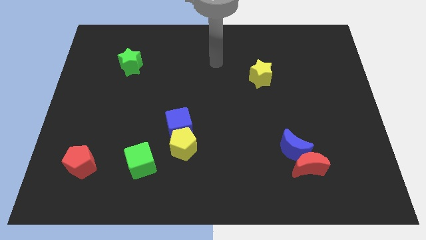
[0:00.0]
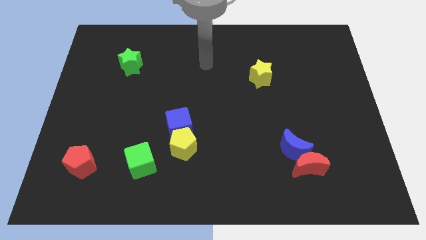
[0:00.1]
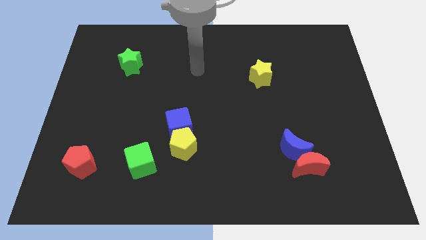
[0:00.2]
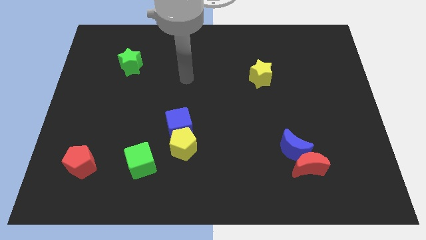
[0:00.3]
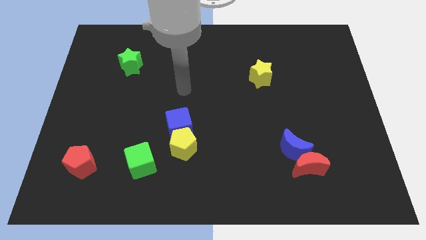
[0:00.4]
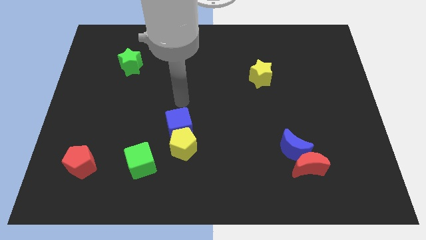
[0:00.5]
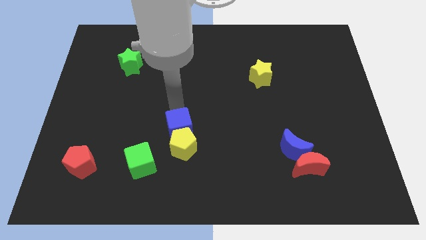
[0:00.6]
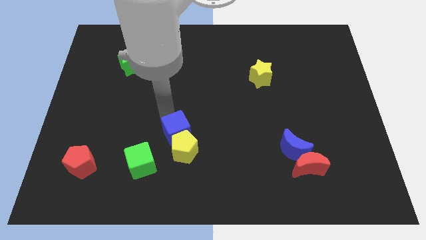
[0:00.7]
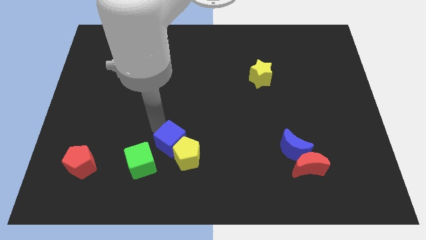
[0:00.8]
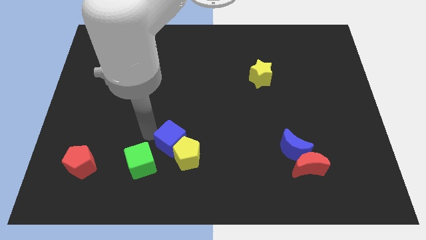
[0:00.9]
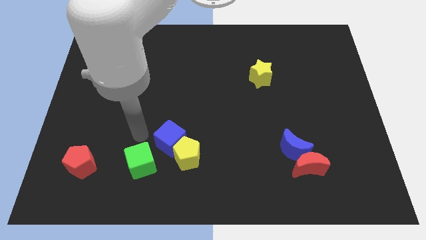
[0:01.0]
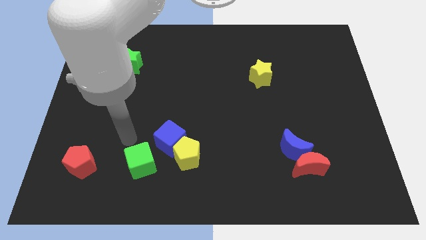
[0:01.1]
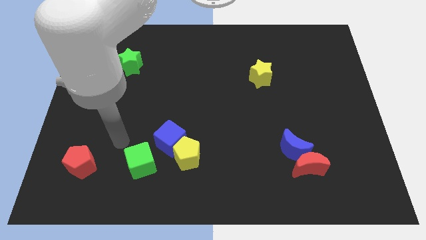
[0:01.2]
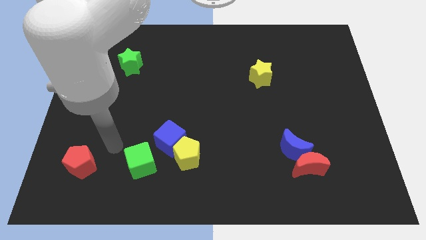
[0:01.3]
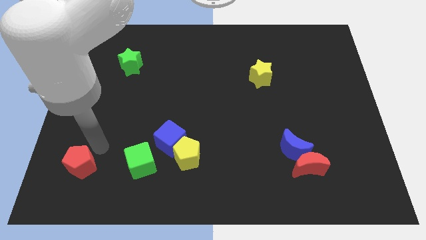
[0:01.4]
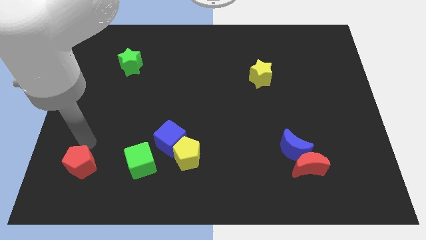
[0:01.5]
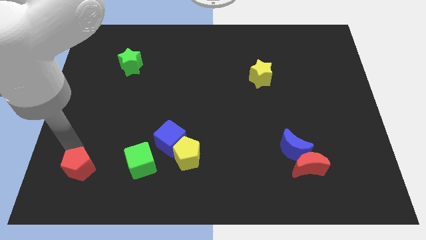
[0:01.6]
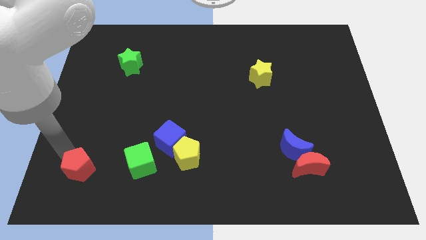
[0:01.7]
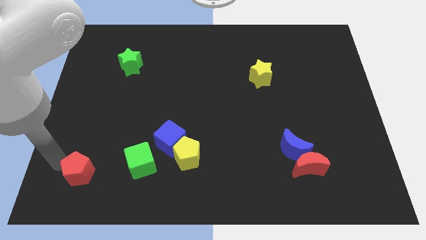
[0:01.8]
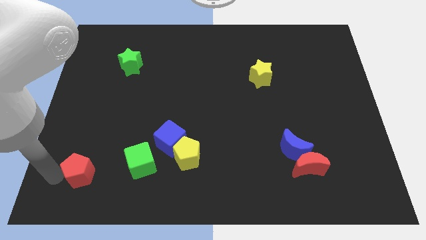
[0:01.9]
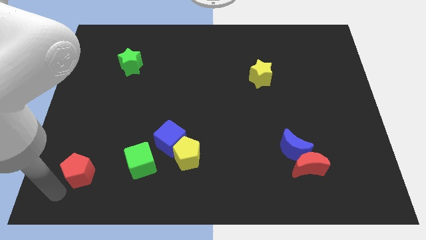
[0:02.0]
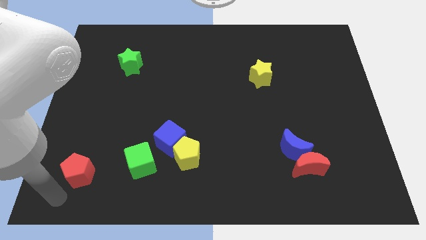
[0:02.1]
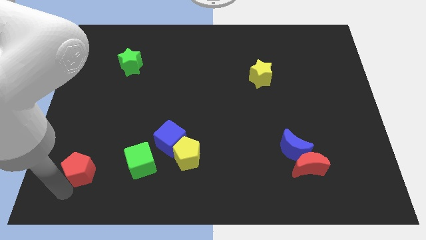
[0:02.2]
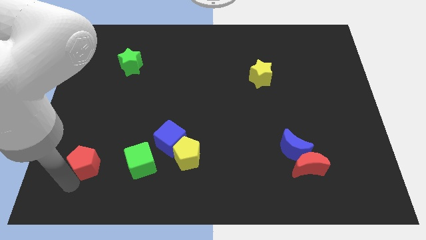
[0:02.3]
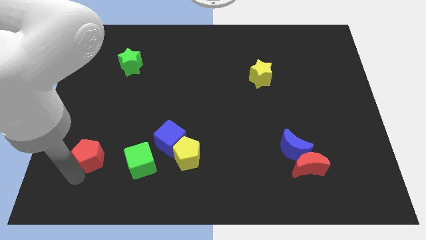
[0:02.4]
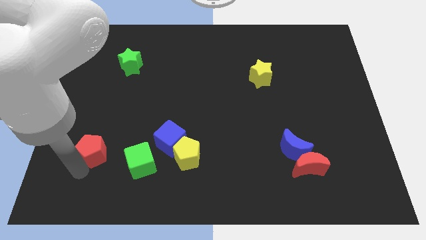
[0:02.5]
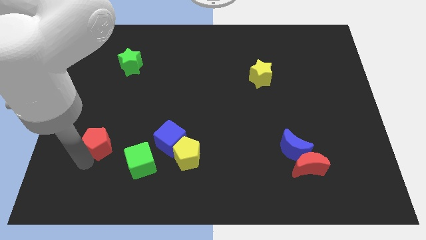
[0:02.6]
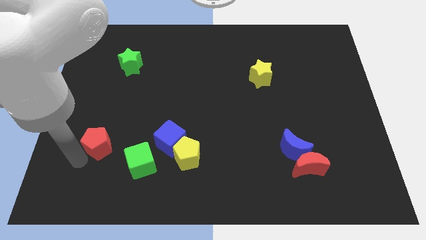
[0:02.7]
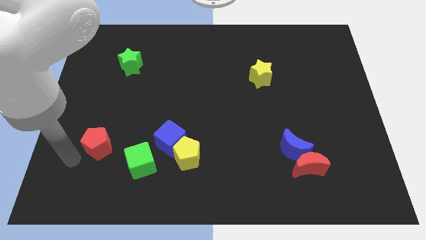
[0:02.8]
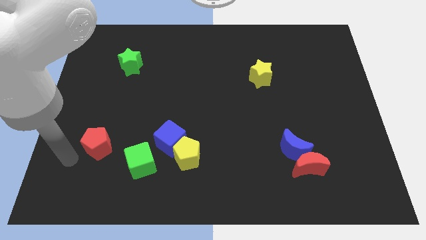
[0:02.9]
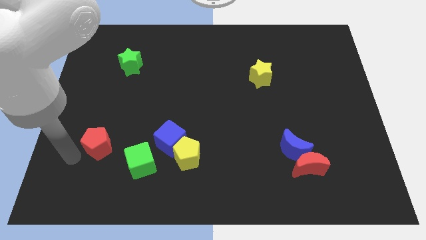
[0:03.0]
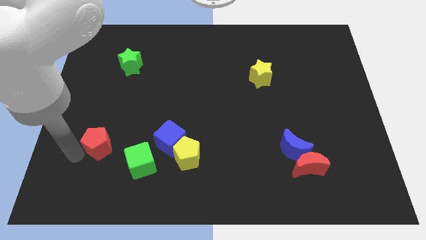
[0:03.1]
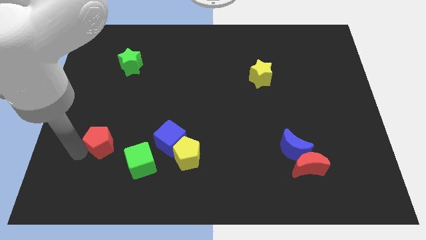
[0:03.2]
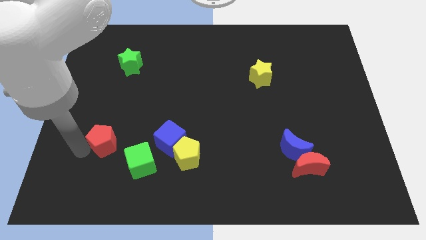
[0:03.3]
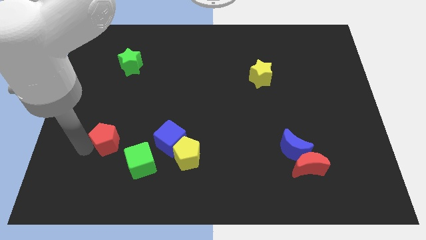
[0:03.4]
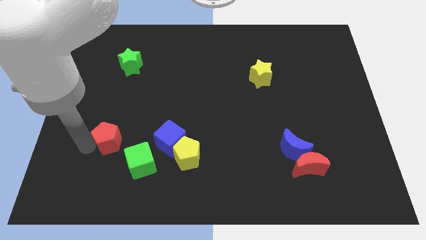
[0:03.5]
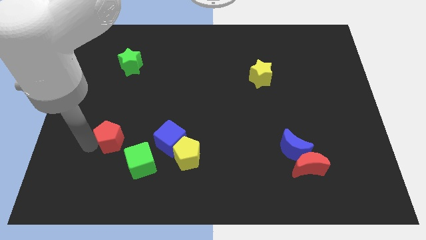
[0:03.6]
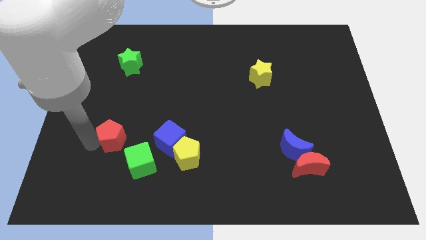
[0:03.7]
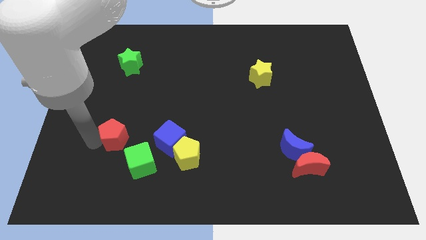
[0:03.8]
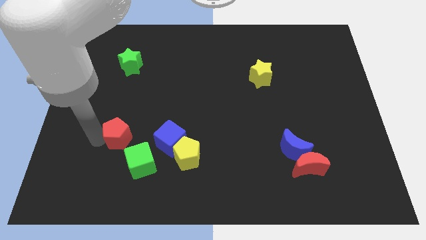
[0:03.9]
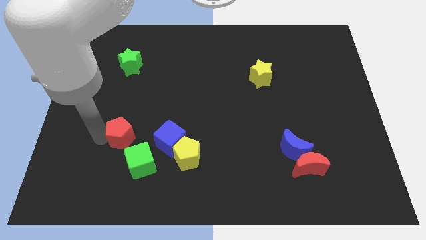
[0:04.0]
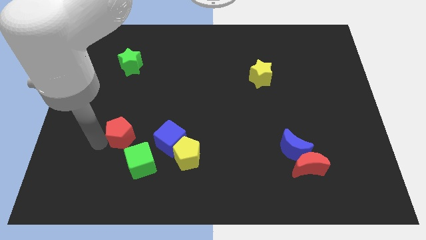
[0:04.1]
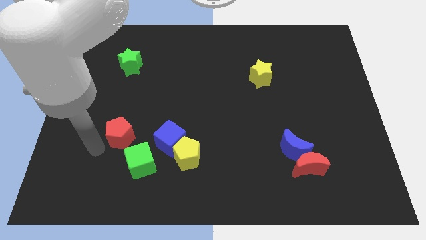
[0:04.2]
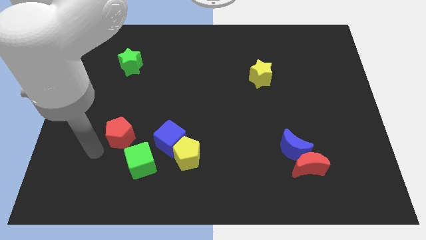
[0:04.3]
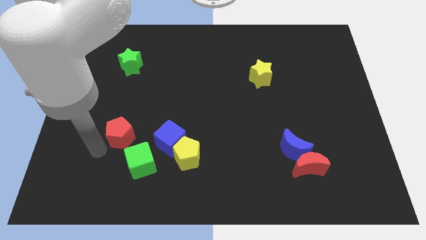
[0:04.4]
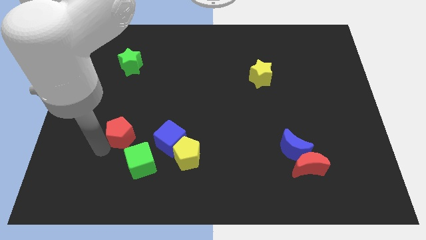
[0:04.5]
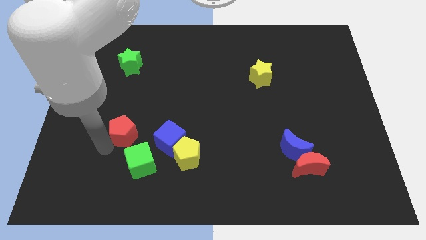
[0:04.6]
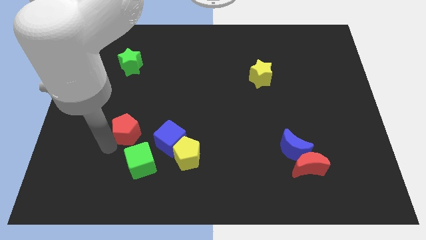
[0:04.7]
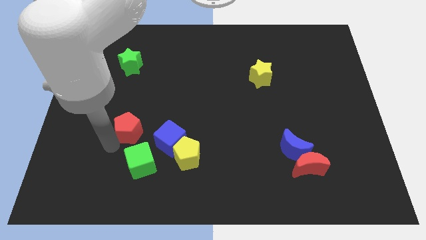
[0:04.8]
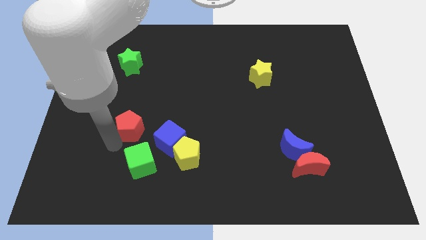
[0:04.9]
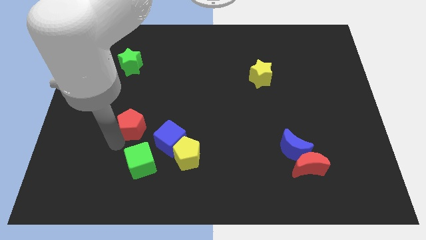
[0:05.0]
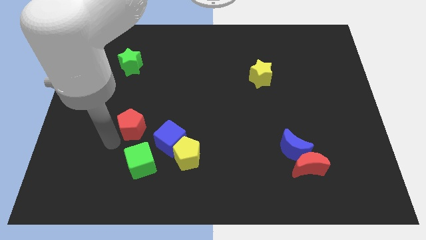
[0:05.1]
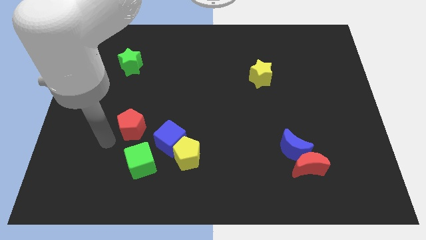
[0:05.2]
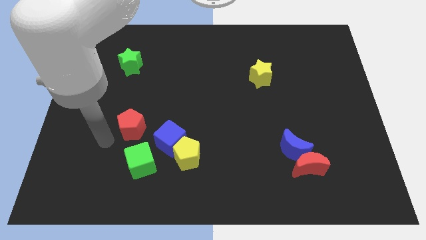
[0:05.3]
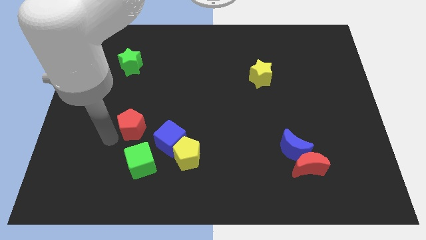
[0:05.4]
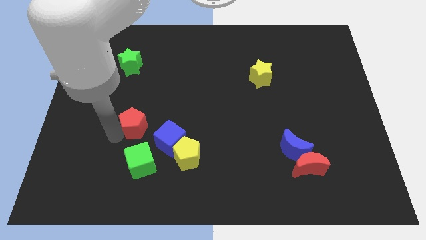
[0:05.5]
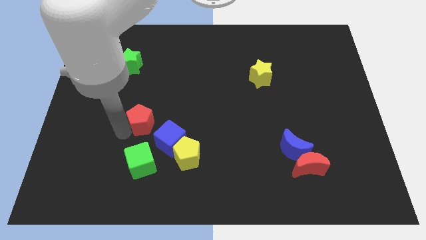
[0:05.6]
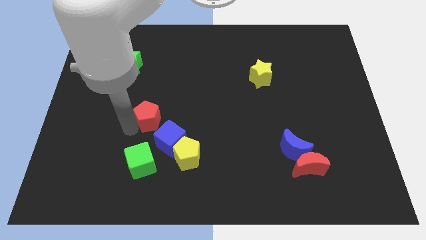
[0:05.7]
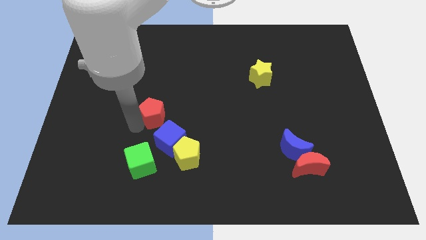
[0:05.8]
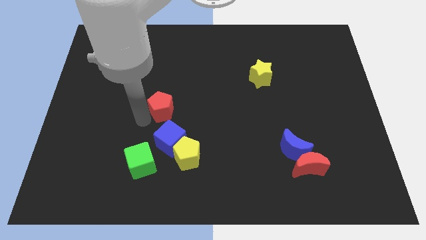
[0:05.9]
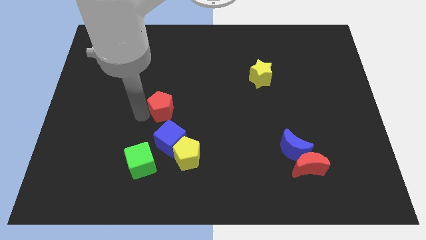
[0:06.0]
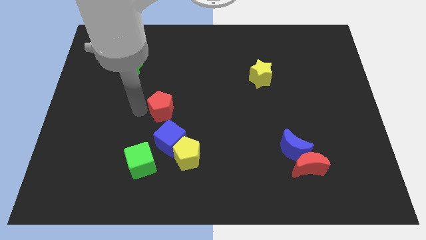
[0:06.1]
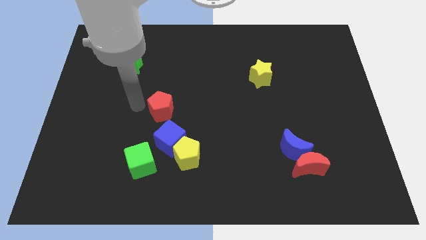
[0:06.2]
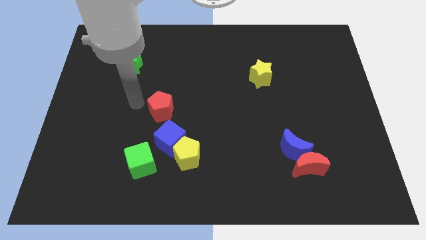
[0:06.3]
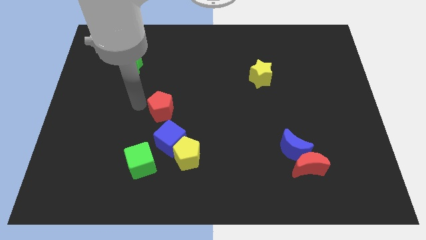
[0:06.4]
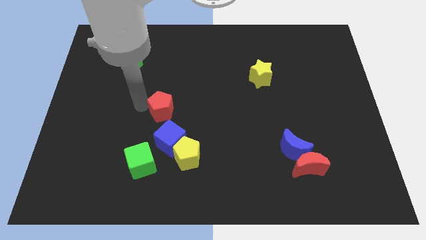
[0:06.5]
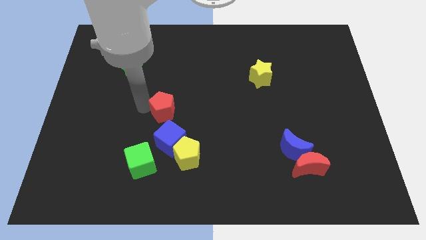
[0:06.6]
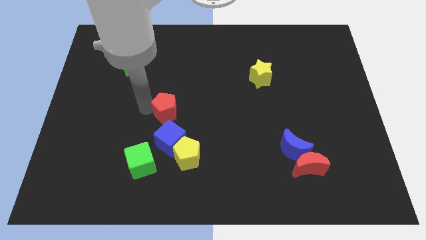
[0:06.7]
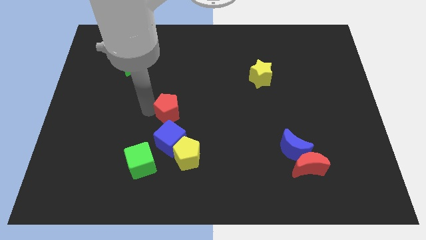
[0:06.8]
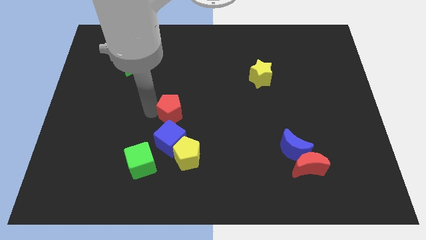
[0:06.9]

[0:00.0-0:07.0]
move the red pentagon to the top of the yellow pentagon

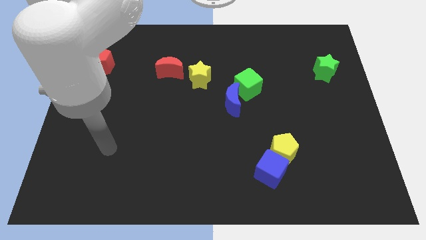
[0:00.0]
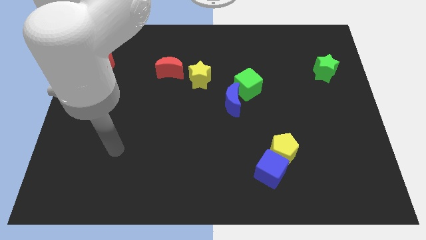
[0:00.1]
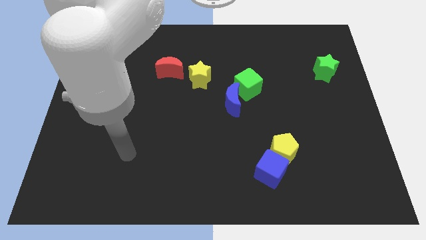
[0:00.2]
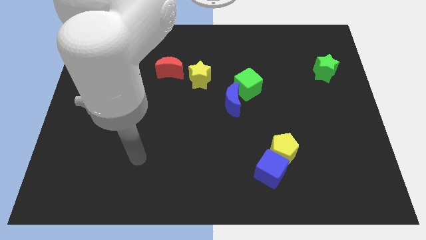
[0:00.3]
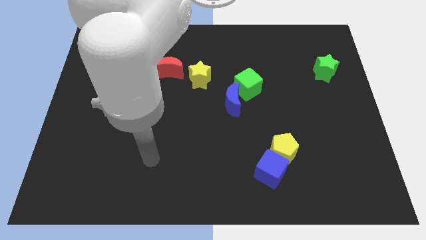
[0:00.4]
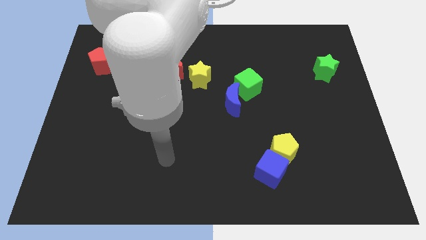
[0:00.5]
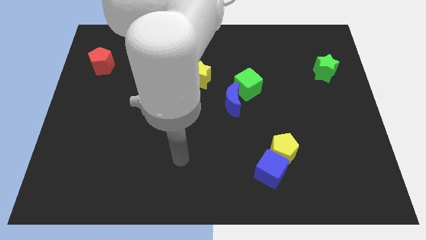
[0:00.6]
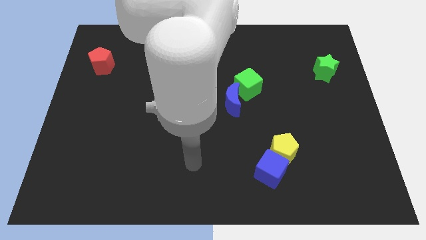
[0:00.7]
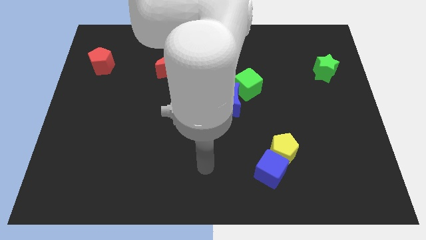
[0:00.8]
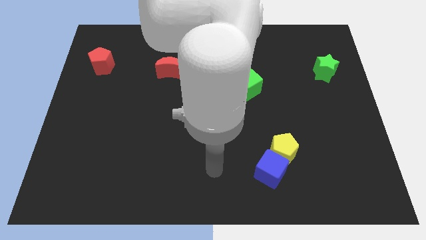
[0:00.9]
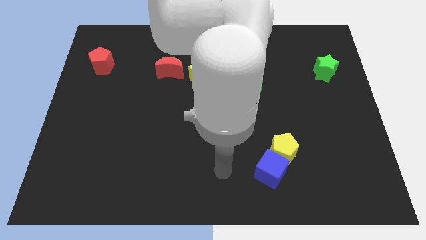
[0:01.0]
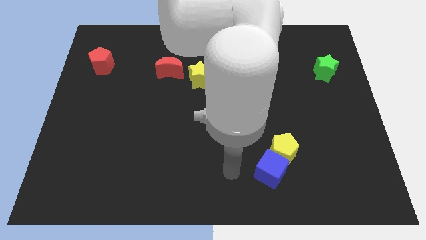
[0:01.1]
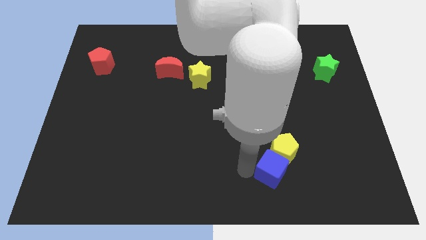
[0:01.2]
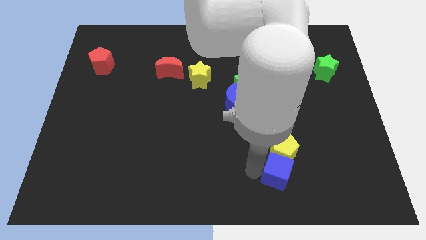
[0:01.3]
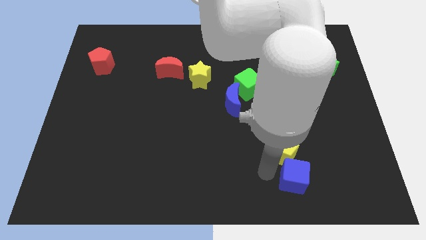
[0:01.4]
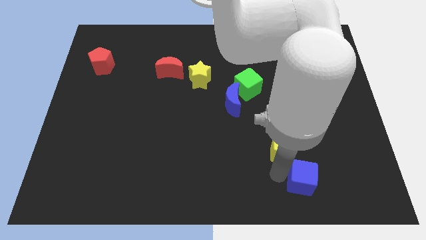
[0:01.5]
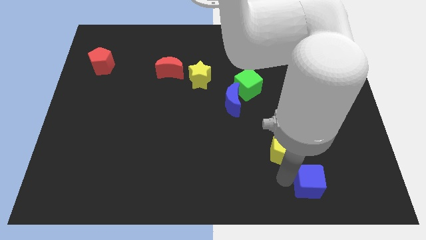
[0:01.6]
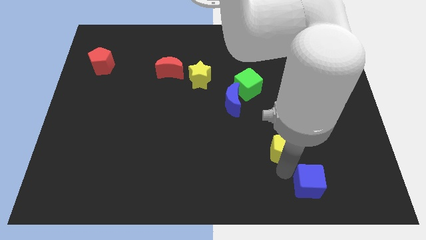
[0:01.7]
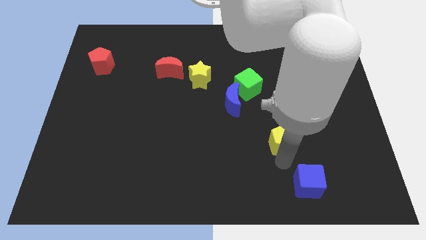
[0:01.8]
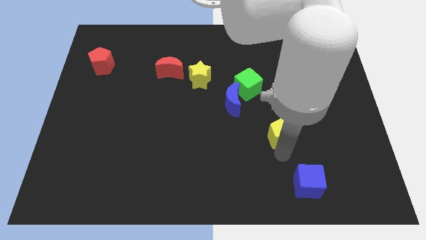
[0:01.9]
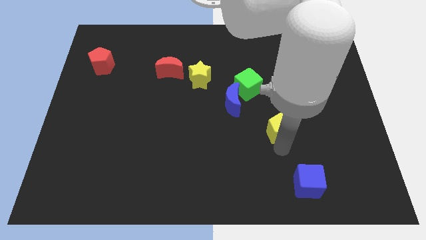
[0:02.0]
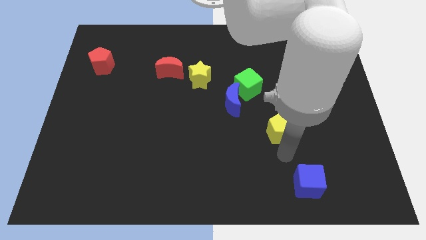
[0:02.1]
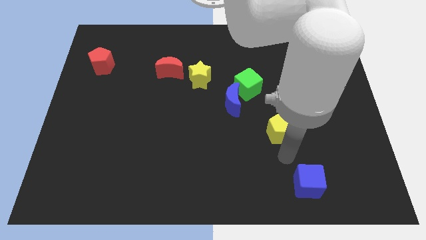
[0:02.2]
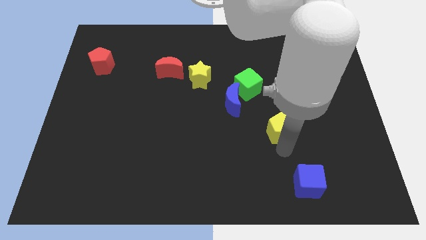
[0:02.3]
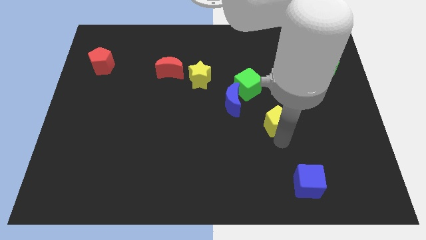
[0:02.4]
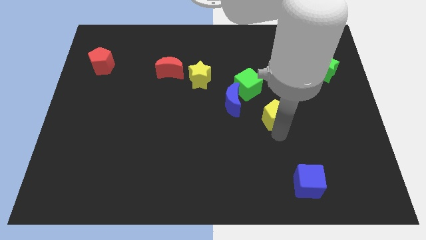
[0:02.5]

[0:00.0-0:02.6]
slide the yellow pentagon to the bottom right side of the green cube
